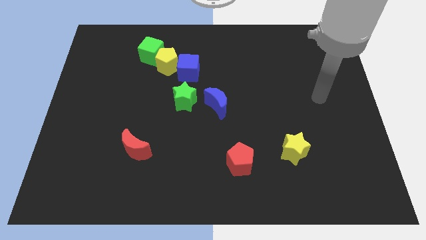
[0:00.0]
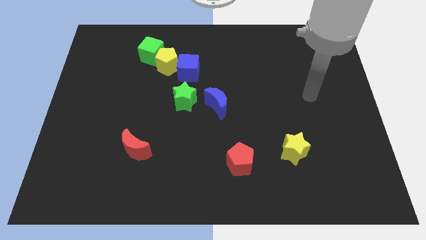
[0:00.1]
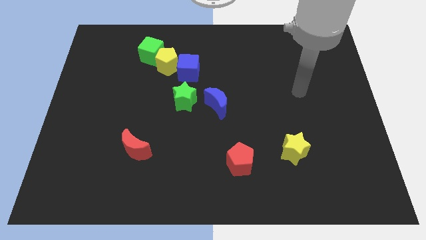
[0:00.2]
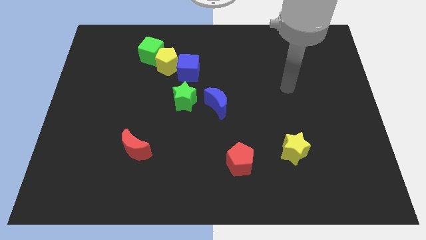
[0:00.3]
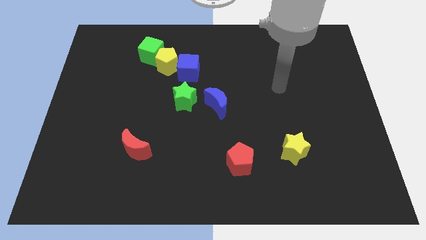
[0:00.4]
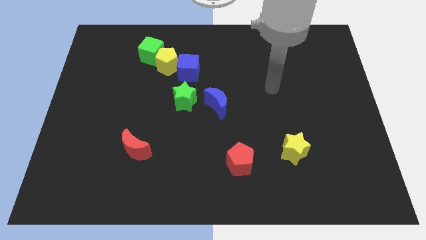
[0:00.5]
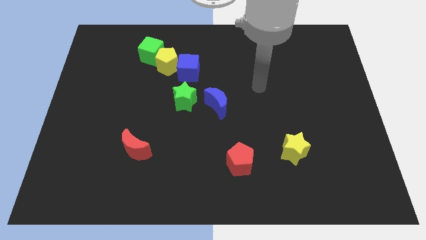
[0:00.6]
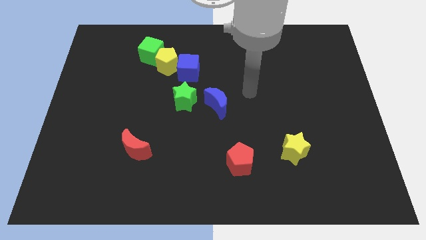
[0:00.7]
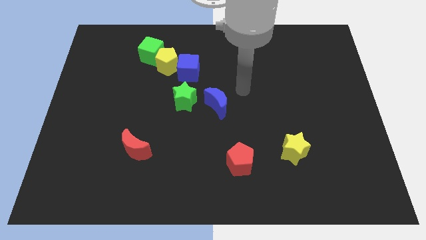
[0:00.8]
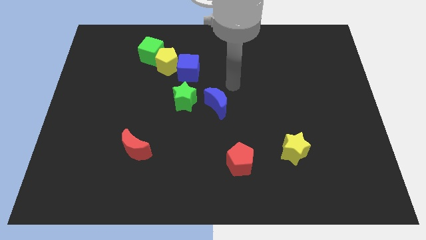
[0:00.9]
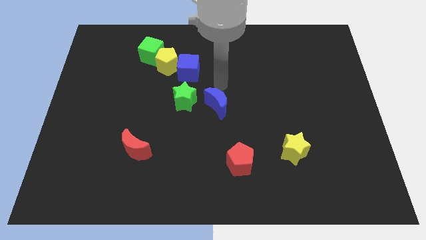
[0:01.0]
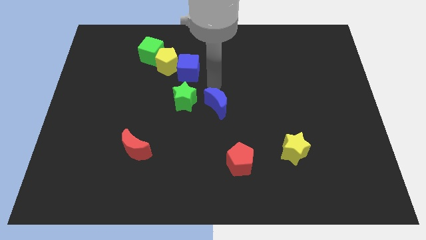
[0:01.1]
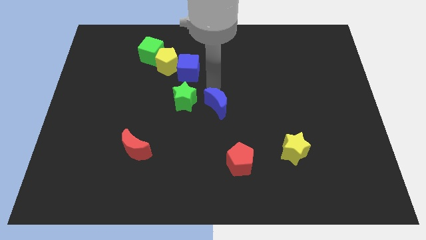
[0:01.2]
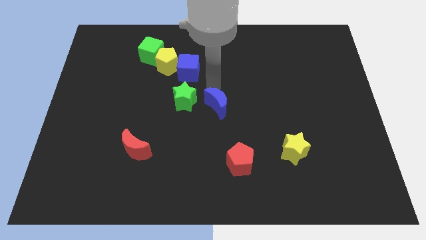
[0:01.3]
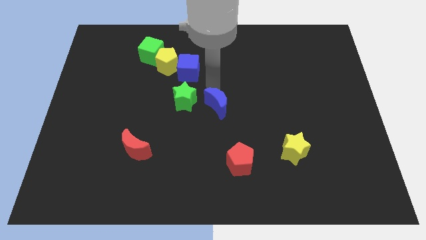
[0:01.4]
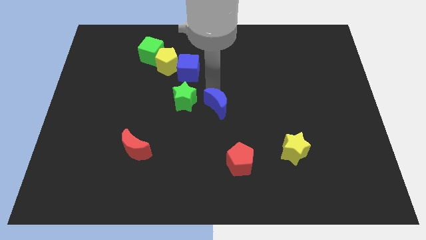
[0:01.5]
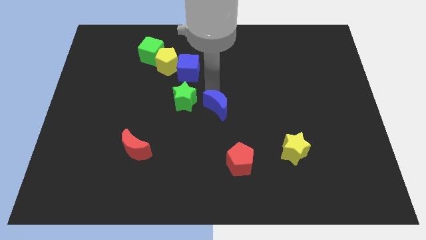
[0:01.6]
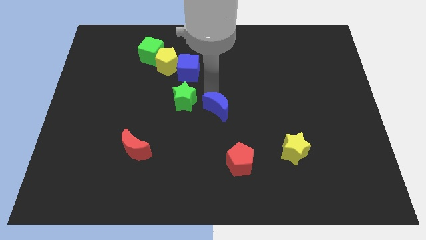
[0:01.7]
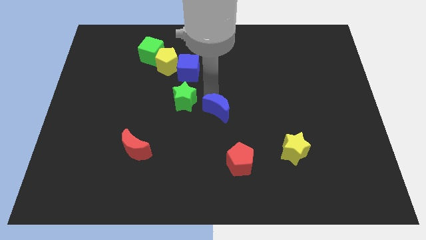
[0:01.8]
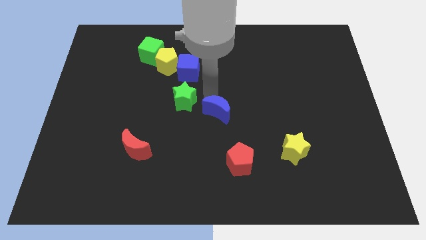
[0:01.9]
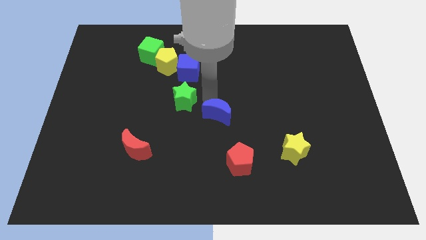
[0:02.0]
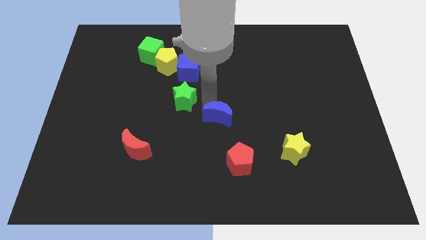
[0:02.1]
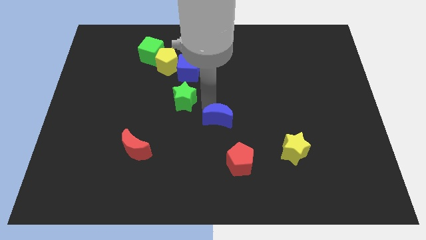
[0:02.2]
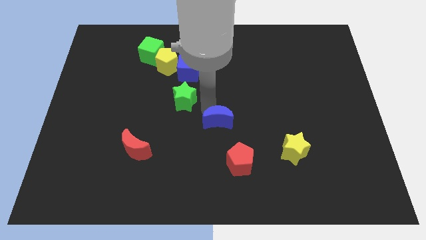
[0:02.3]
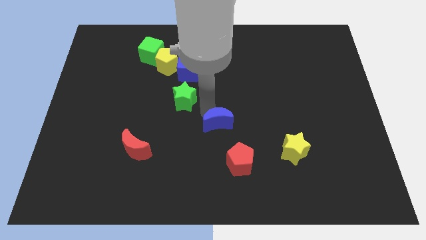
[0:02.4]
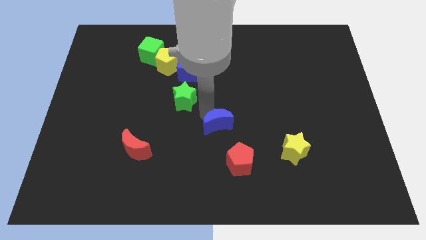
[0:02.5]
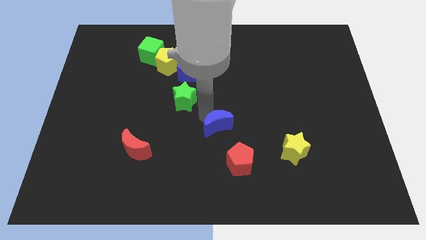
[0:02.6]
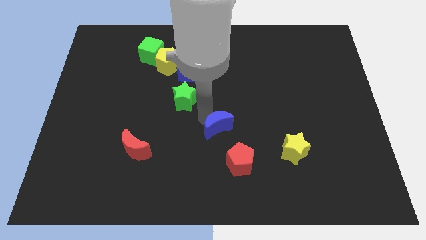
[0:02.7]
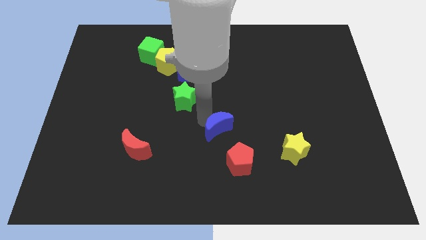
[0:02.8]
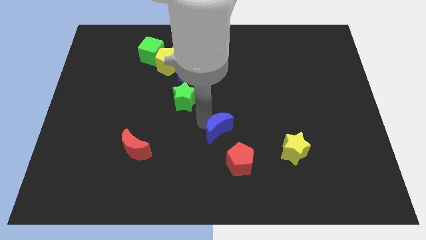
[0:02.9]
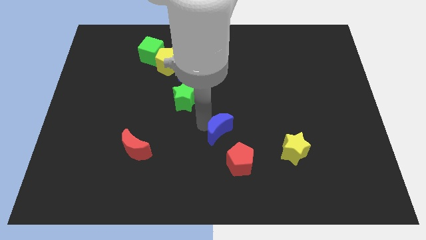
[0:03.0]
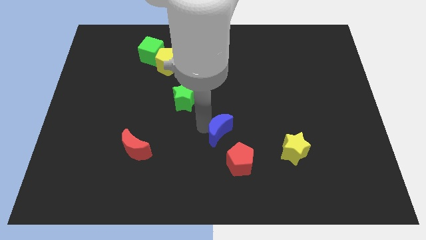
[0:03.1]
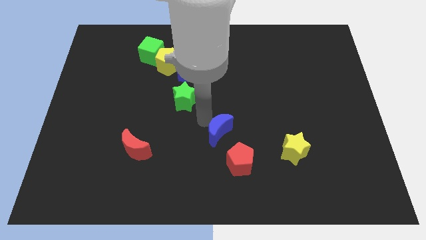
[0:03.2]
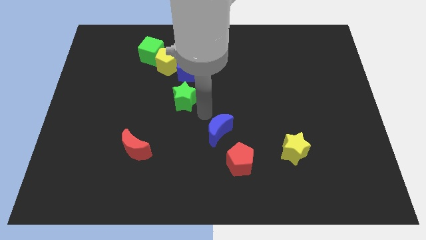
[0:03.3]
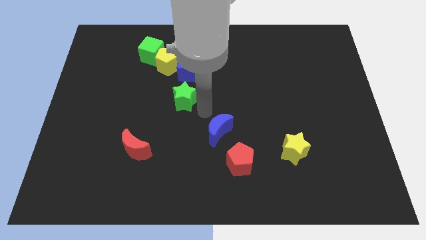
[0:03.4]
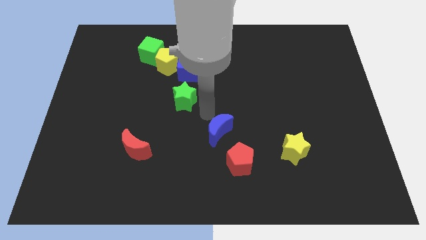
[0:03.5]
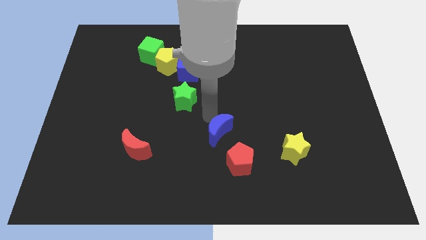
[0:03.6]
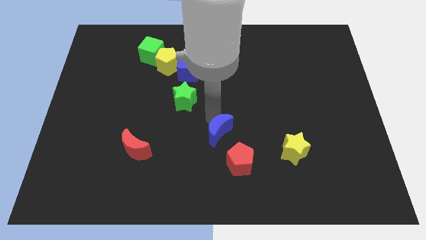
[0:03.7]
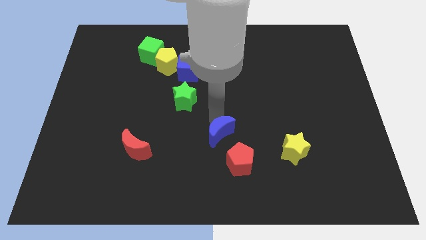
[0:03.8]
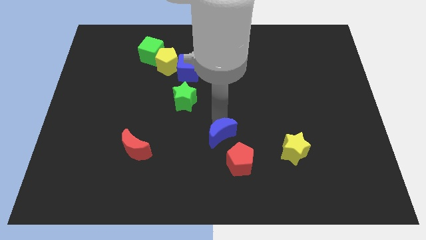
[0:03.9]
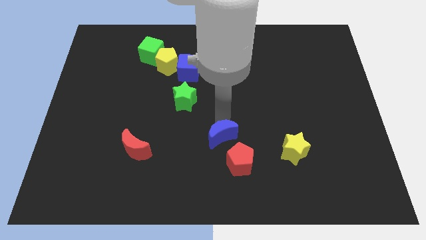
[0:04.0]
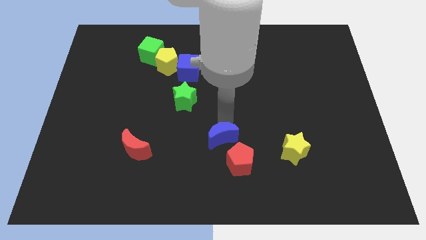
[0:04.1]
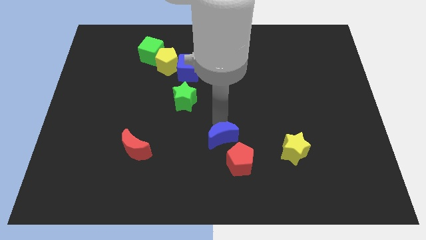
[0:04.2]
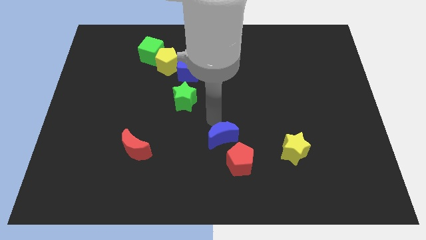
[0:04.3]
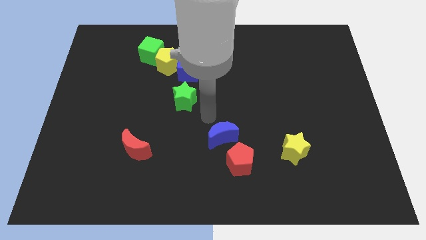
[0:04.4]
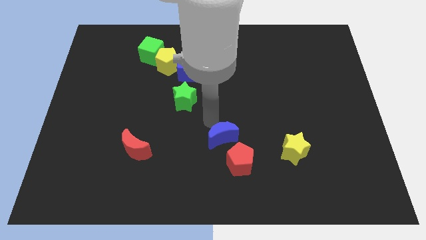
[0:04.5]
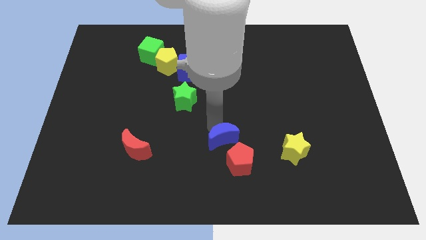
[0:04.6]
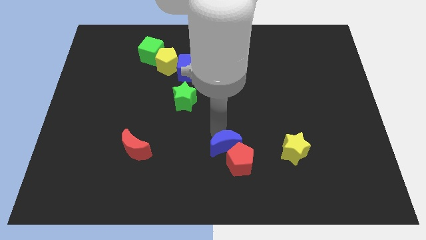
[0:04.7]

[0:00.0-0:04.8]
push the blue moon to the red pentagon

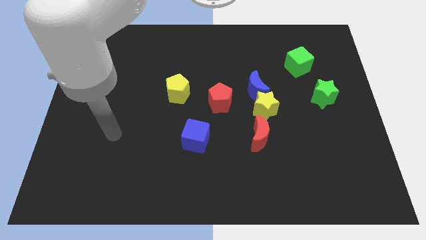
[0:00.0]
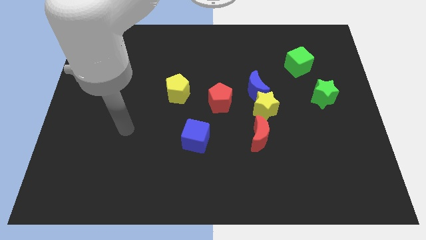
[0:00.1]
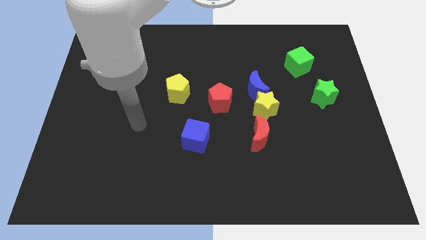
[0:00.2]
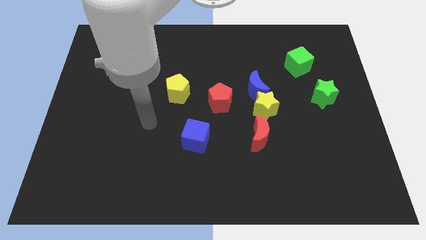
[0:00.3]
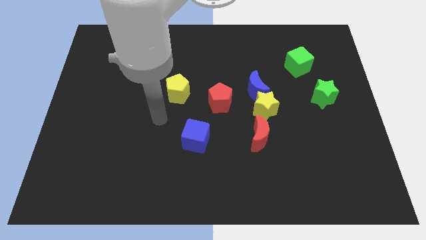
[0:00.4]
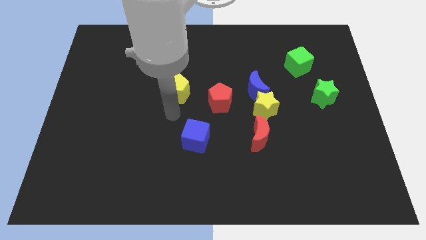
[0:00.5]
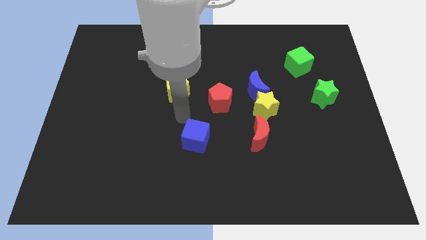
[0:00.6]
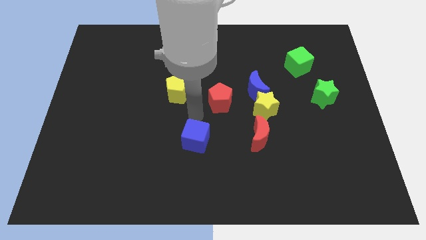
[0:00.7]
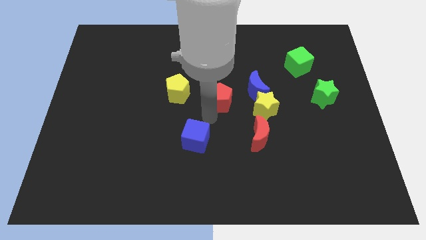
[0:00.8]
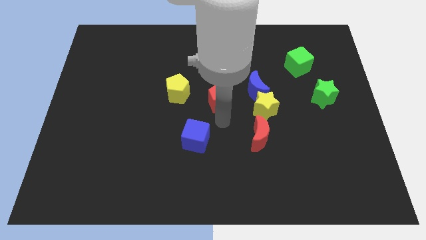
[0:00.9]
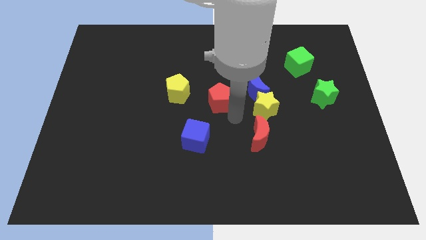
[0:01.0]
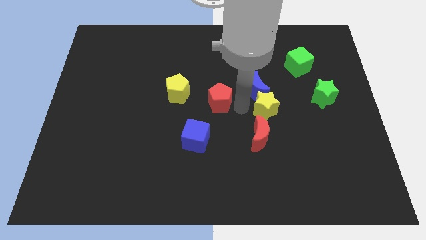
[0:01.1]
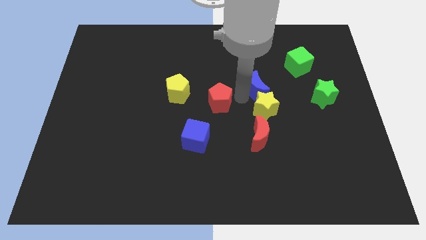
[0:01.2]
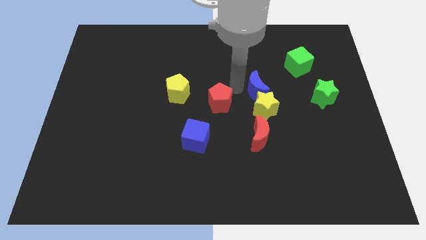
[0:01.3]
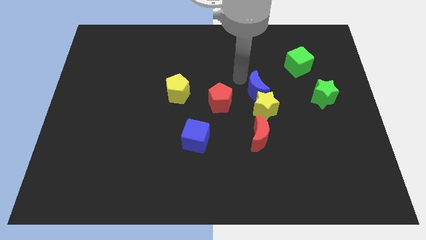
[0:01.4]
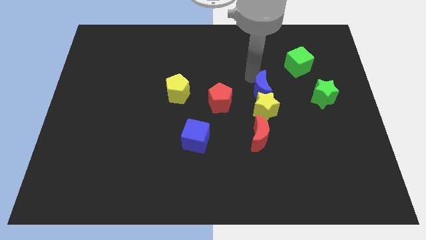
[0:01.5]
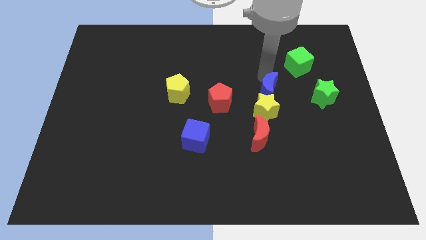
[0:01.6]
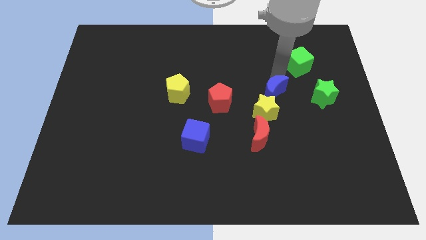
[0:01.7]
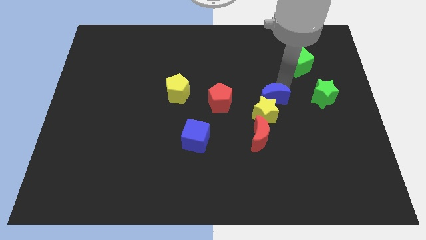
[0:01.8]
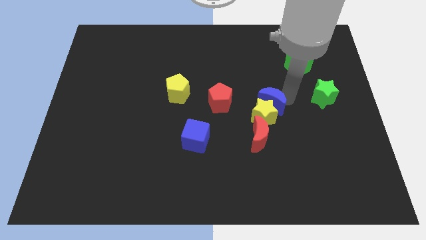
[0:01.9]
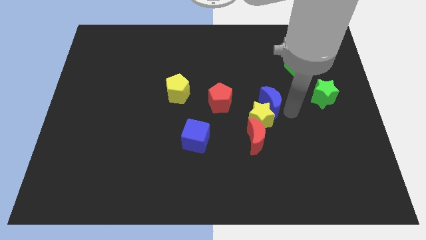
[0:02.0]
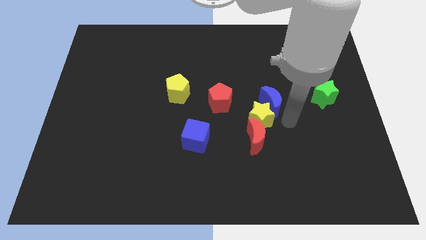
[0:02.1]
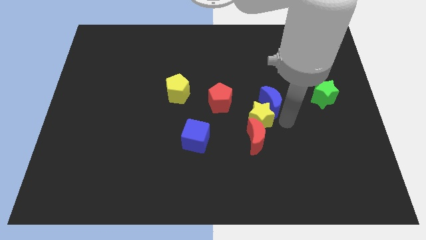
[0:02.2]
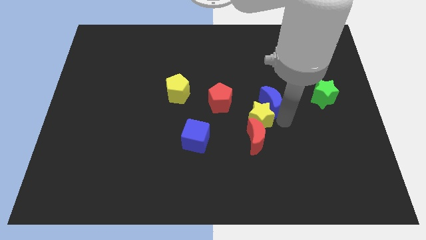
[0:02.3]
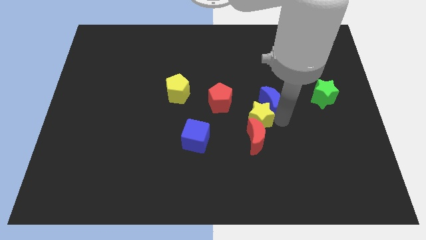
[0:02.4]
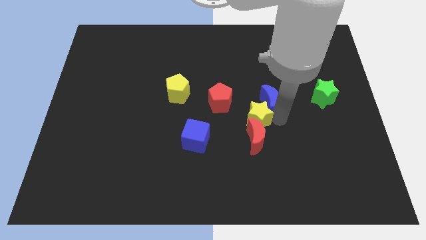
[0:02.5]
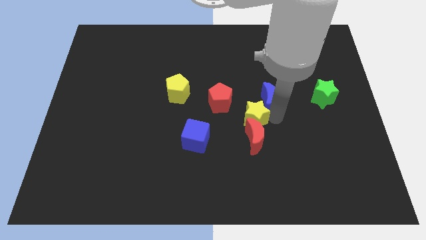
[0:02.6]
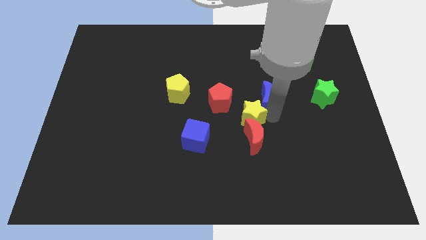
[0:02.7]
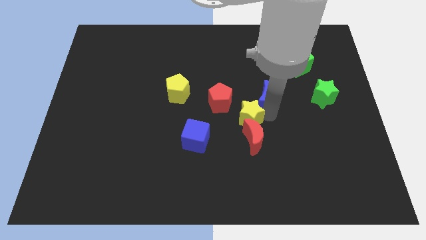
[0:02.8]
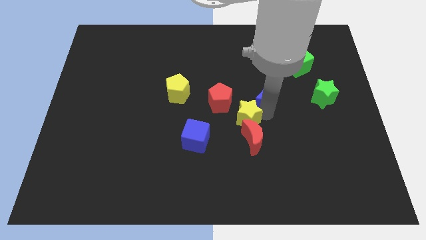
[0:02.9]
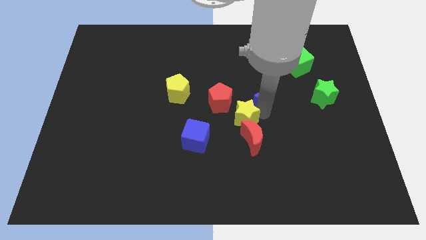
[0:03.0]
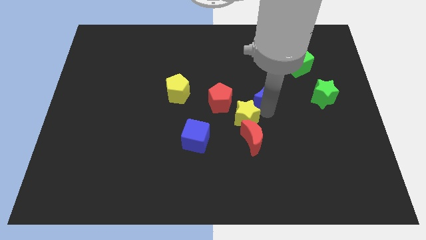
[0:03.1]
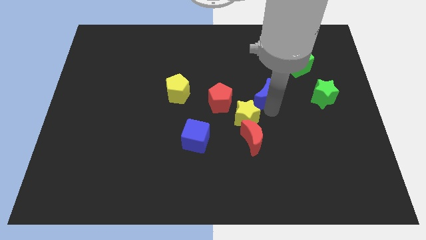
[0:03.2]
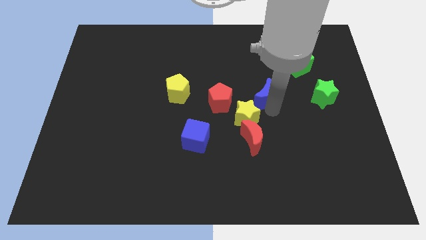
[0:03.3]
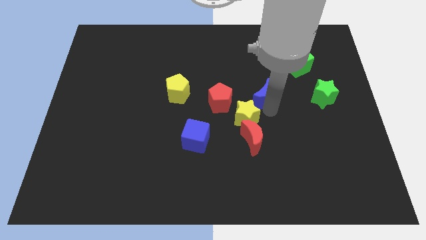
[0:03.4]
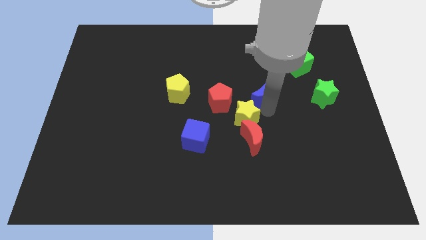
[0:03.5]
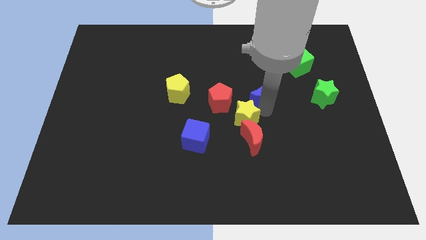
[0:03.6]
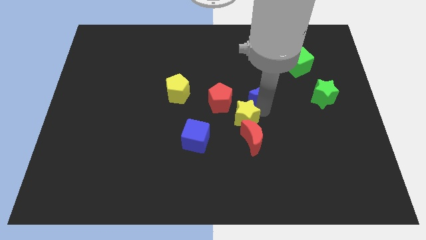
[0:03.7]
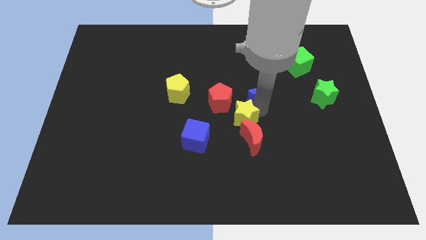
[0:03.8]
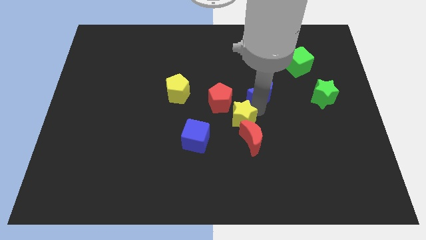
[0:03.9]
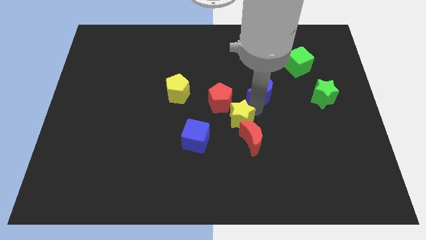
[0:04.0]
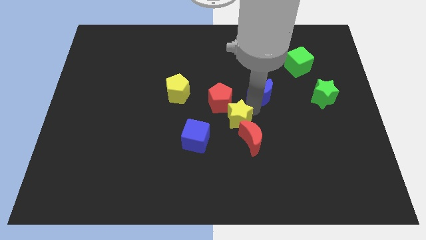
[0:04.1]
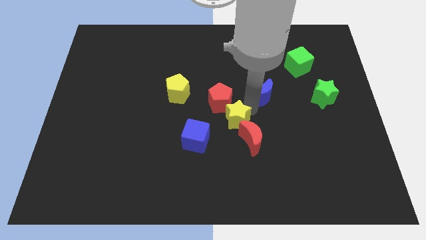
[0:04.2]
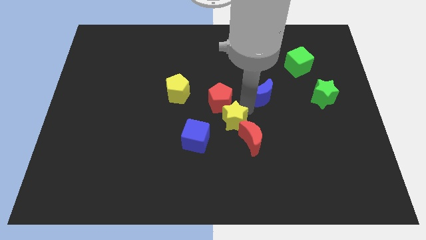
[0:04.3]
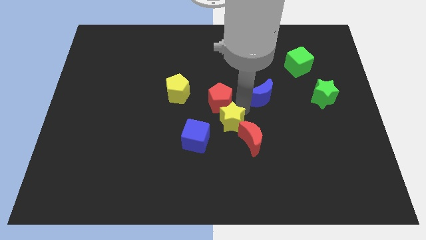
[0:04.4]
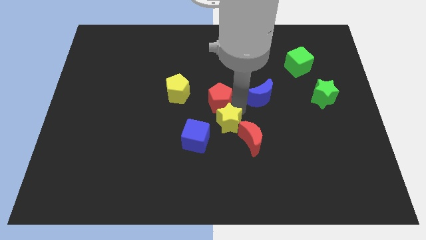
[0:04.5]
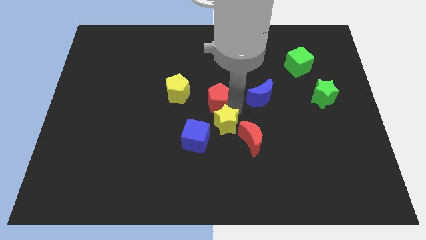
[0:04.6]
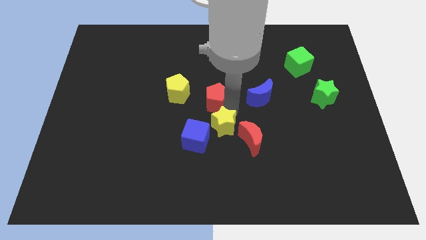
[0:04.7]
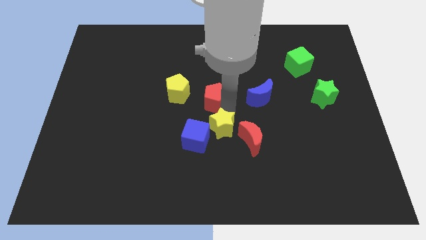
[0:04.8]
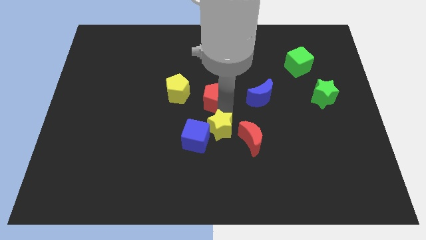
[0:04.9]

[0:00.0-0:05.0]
slide the yellow star close to the blue cube
